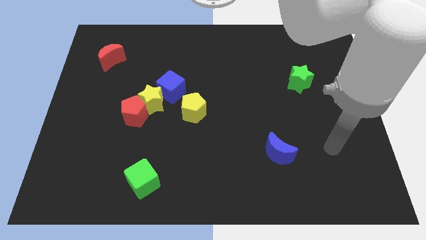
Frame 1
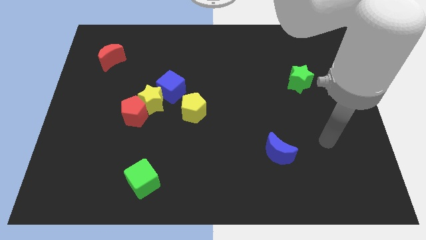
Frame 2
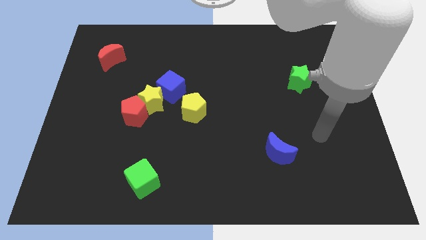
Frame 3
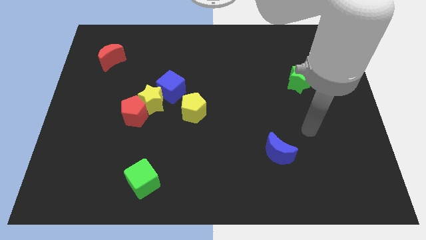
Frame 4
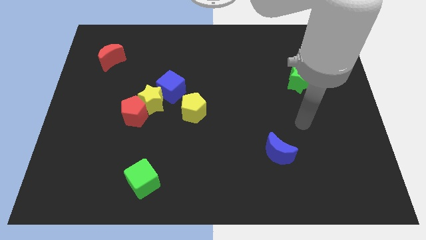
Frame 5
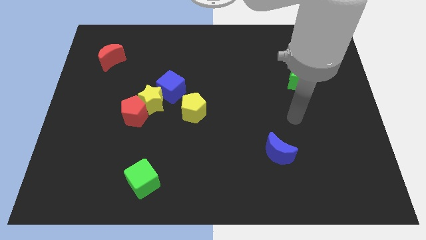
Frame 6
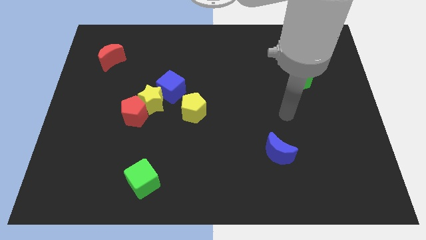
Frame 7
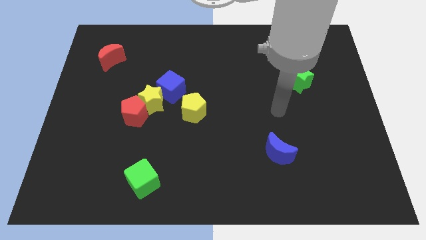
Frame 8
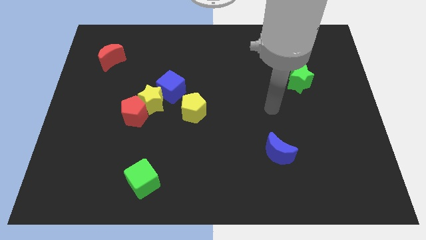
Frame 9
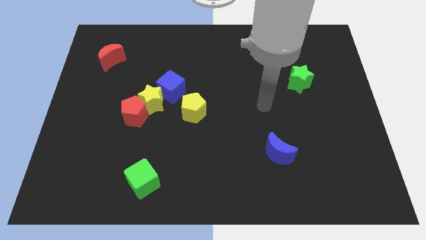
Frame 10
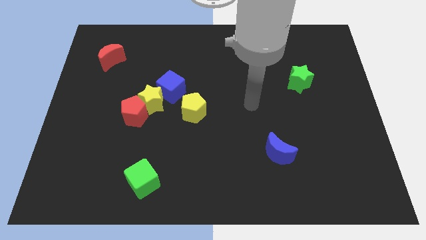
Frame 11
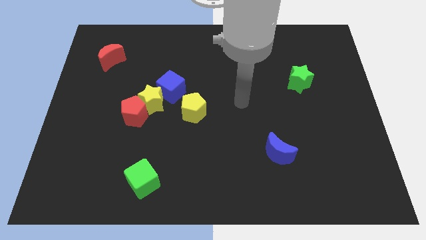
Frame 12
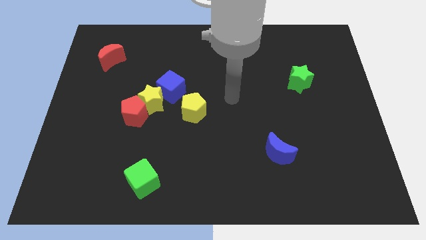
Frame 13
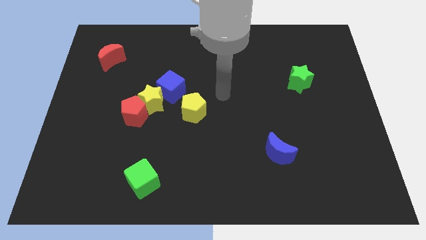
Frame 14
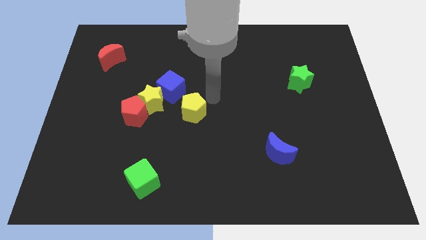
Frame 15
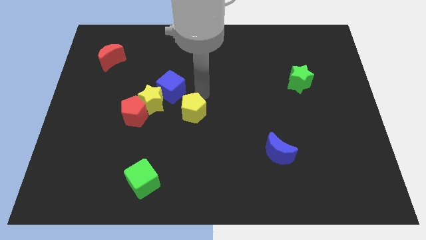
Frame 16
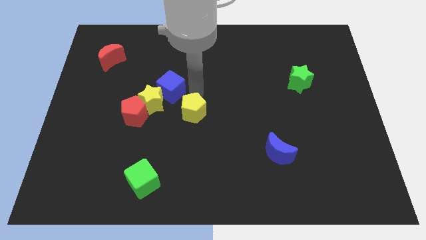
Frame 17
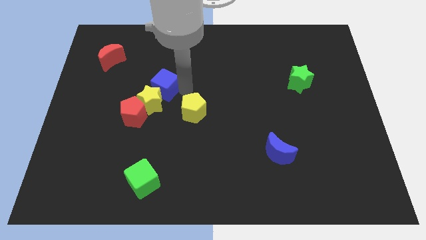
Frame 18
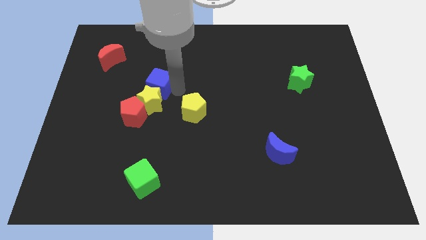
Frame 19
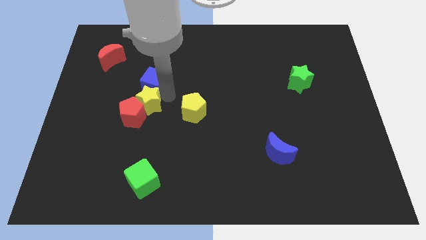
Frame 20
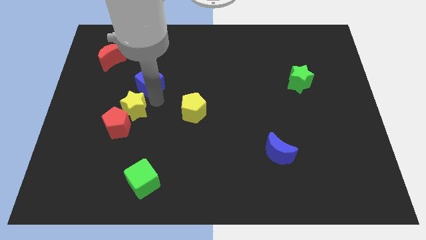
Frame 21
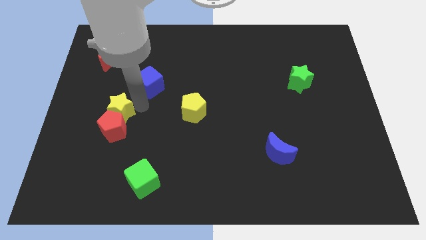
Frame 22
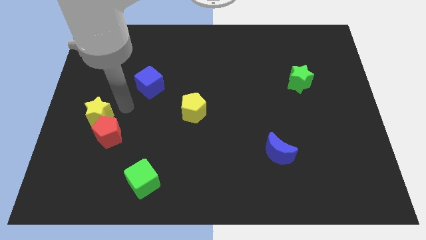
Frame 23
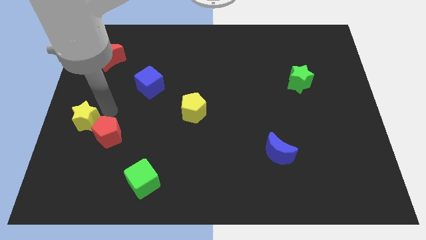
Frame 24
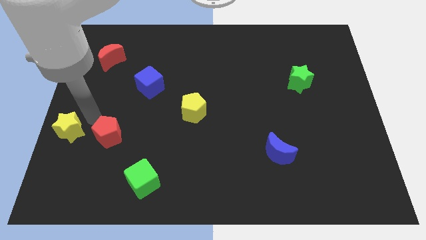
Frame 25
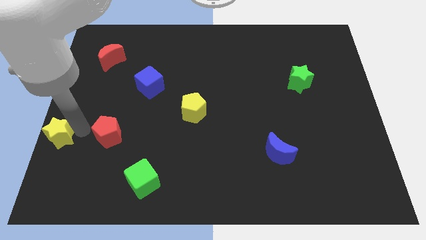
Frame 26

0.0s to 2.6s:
move the red pentagon away from the yellow star

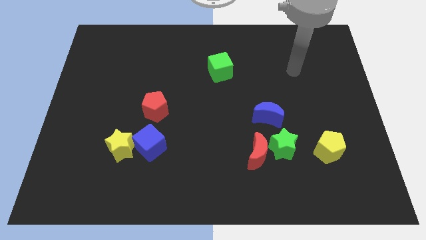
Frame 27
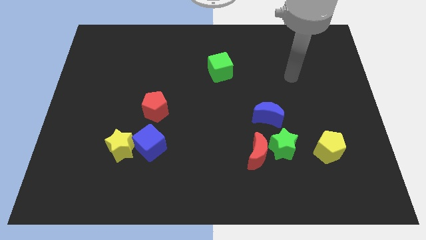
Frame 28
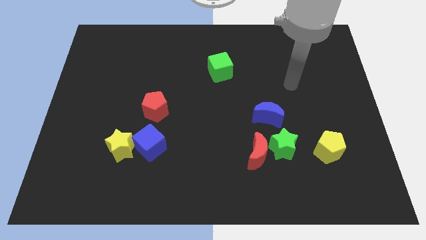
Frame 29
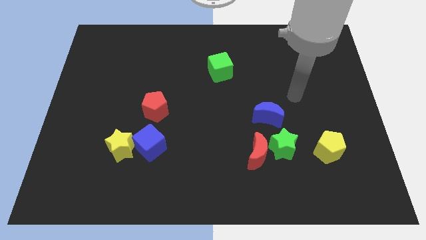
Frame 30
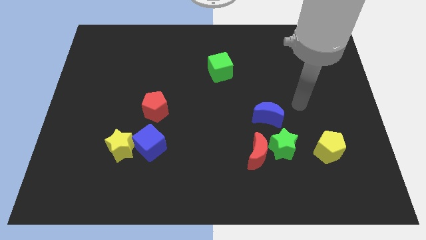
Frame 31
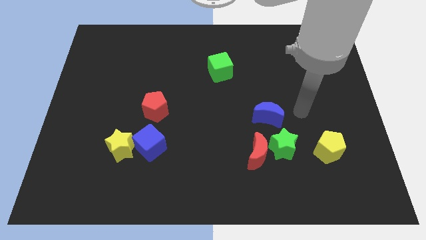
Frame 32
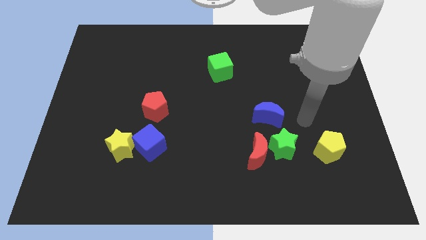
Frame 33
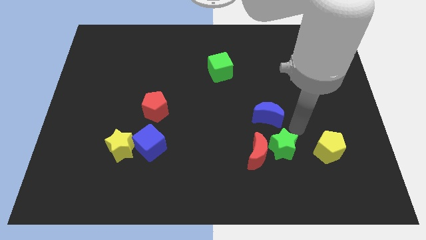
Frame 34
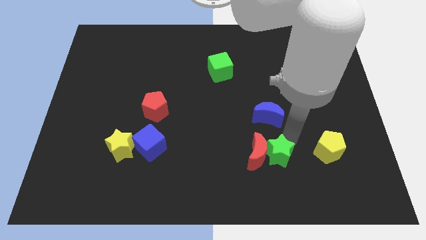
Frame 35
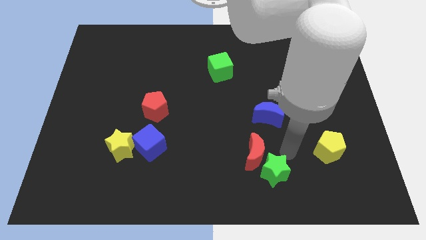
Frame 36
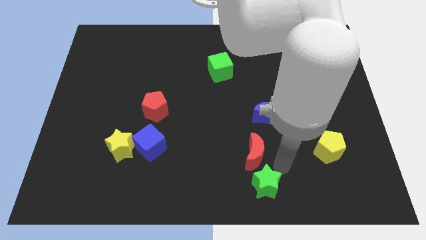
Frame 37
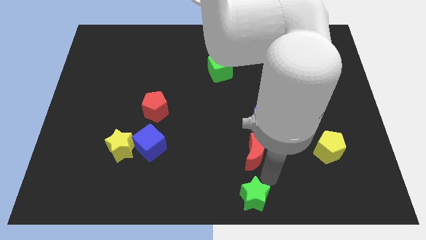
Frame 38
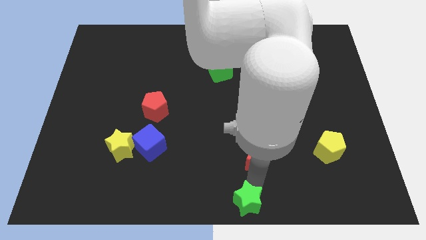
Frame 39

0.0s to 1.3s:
pull the red moon apart from the green star

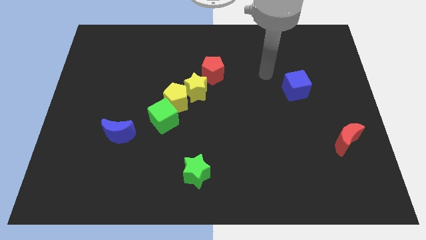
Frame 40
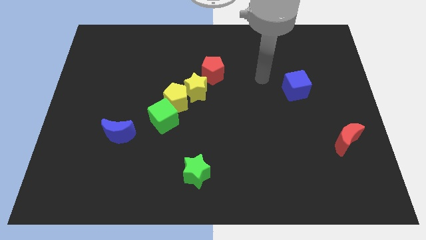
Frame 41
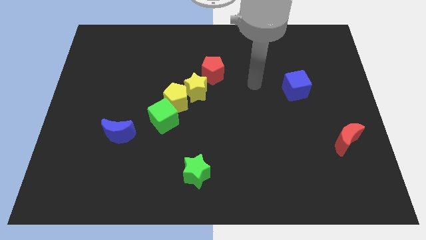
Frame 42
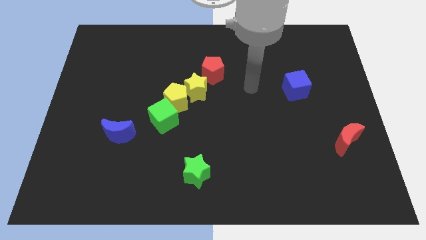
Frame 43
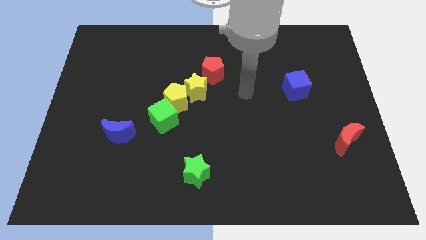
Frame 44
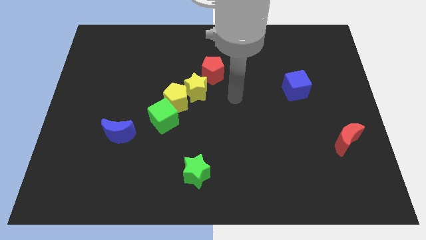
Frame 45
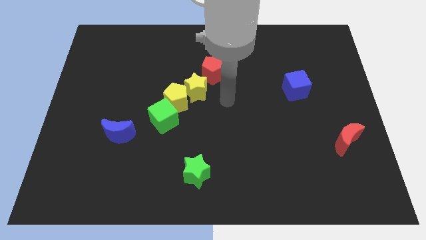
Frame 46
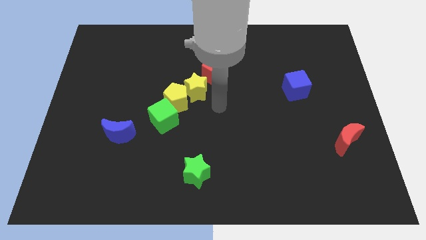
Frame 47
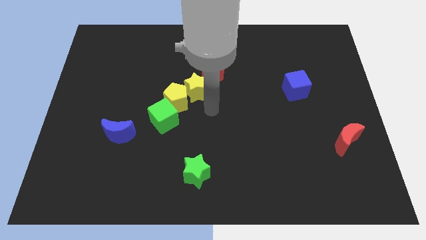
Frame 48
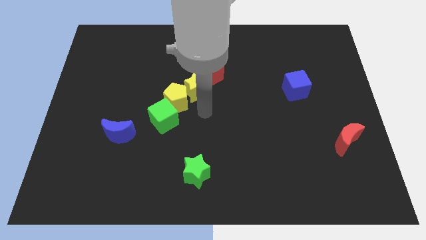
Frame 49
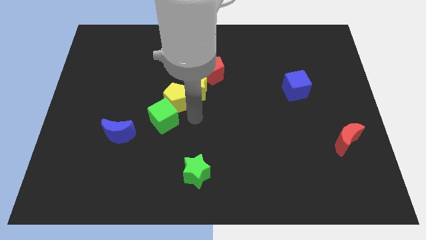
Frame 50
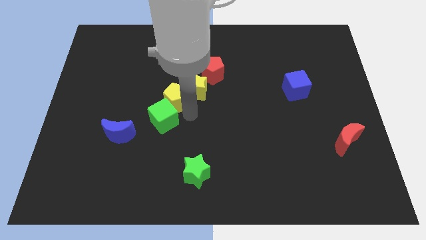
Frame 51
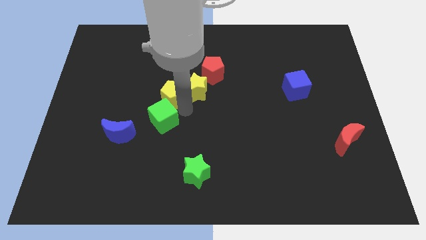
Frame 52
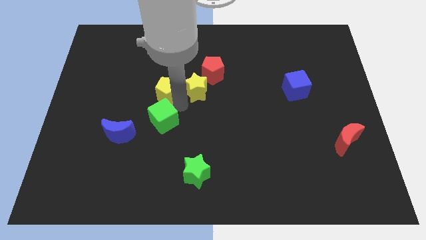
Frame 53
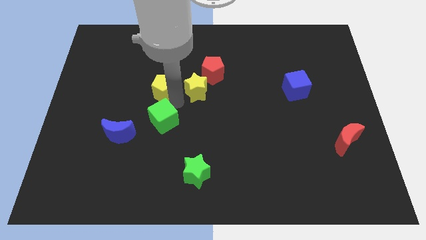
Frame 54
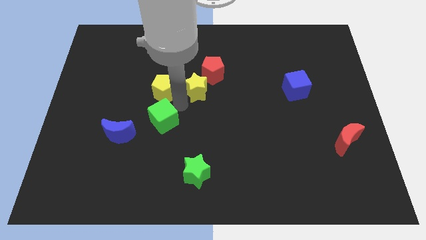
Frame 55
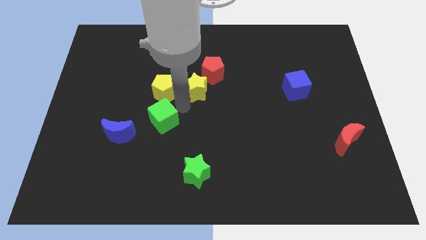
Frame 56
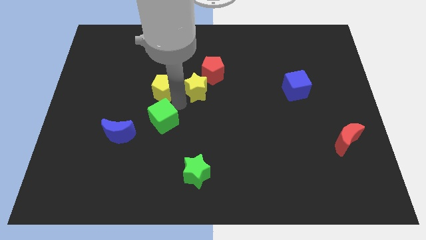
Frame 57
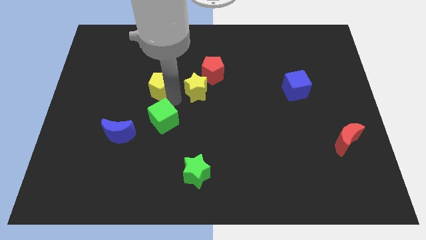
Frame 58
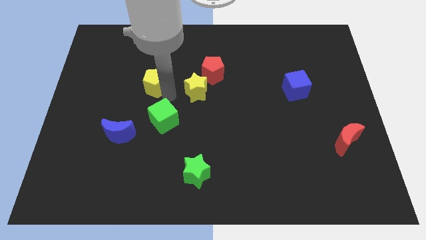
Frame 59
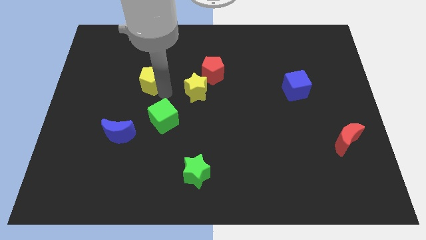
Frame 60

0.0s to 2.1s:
move the yellow pentagon away from the yellow star and green cube

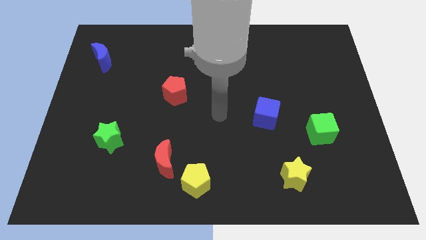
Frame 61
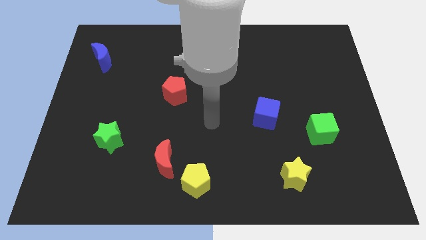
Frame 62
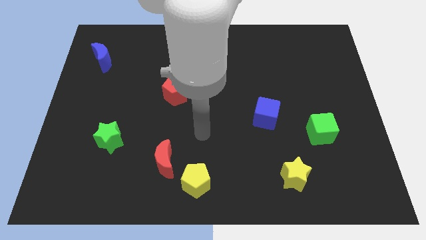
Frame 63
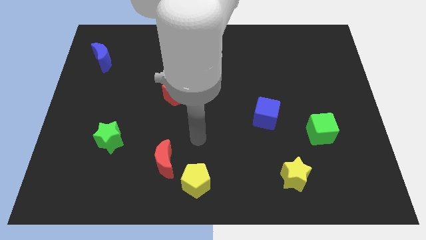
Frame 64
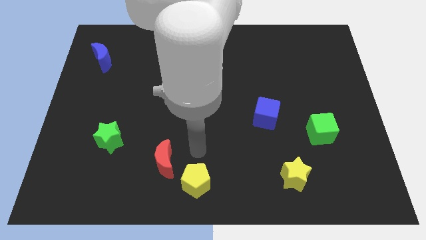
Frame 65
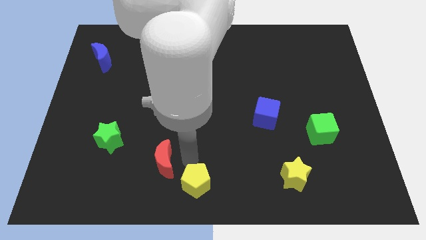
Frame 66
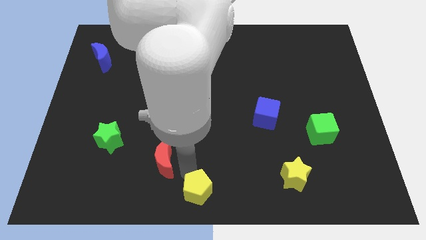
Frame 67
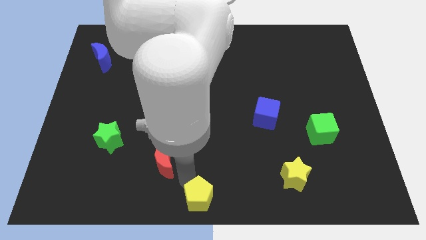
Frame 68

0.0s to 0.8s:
move the red moon away from the yellow pentagon

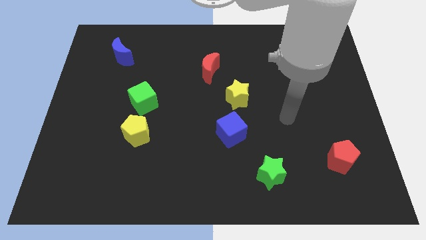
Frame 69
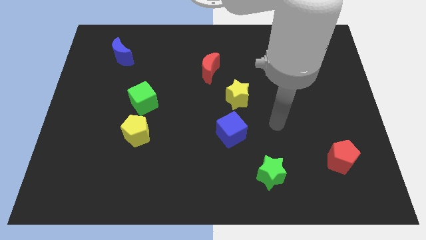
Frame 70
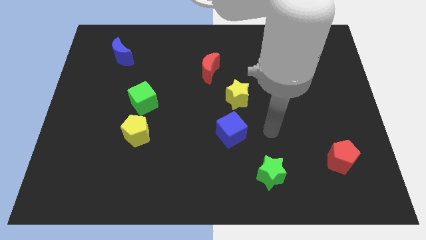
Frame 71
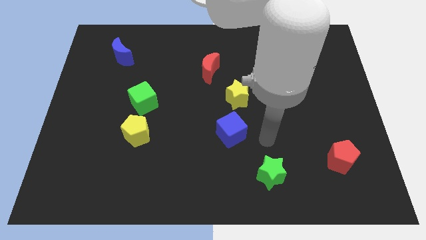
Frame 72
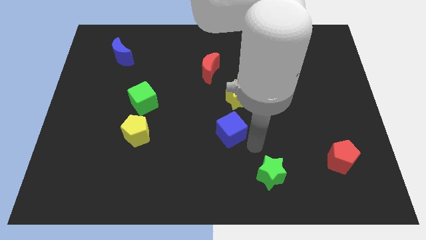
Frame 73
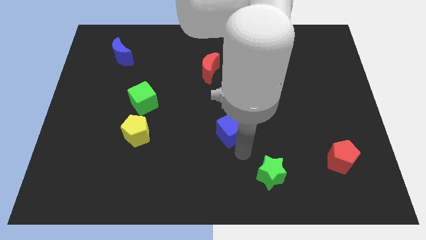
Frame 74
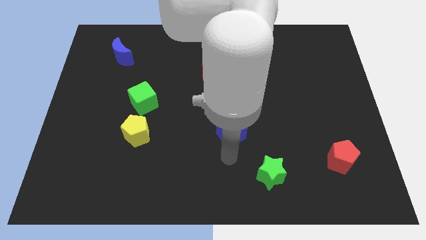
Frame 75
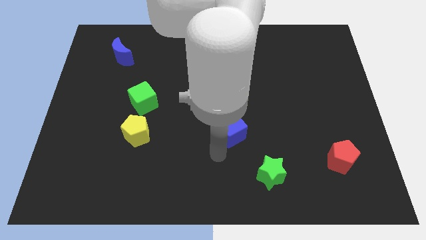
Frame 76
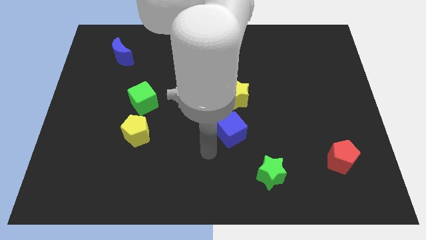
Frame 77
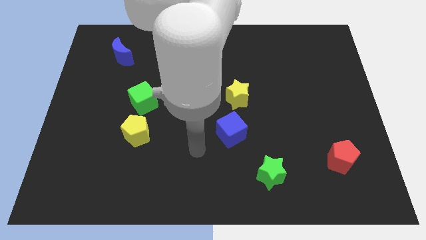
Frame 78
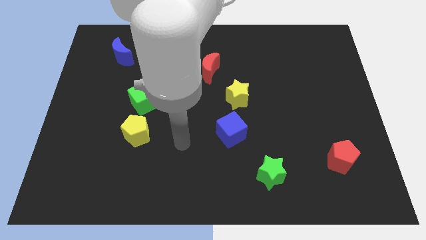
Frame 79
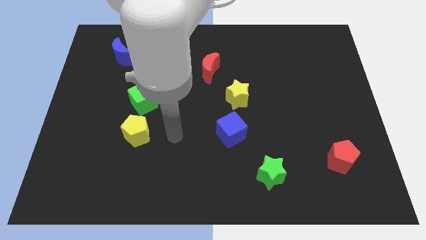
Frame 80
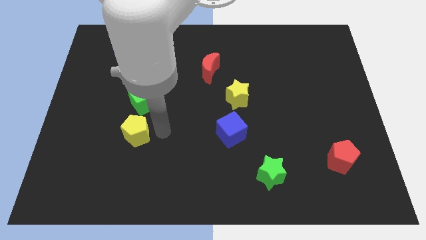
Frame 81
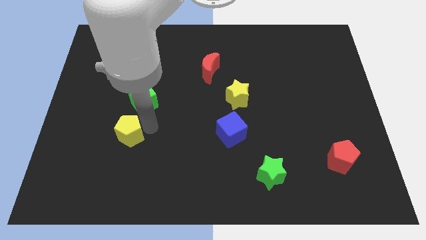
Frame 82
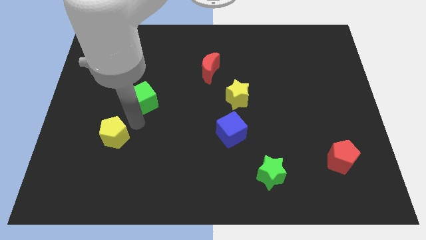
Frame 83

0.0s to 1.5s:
move the green cube away from the yellow pentagon

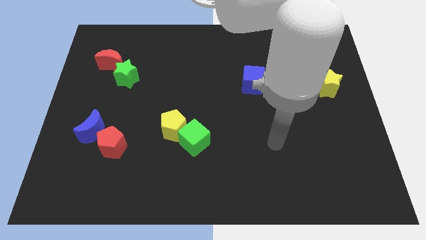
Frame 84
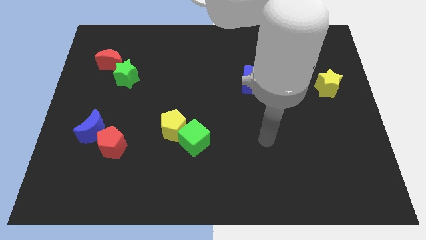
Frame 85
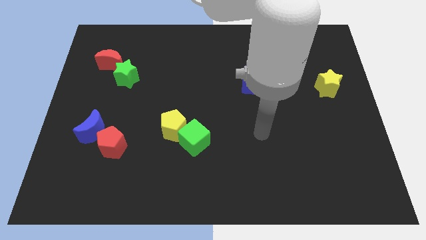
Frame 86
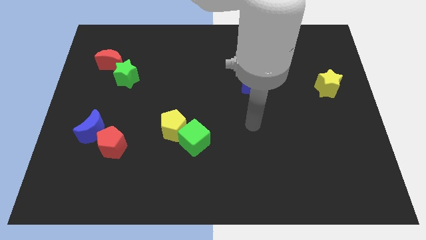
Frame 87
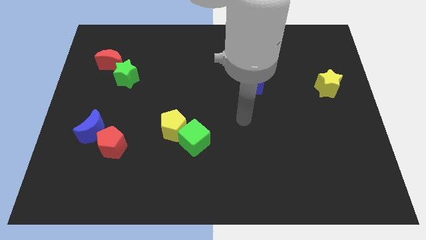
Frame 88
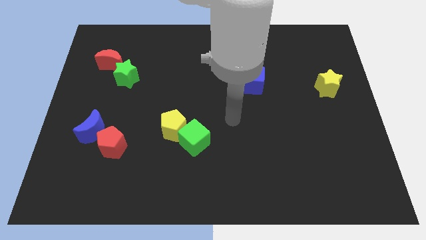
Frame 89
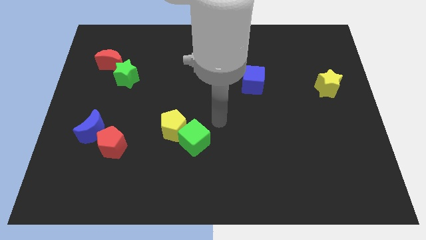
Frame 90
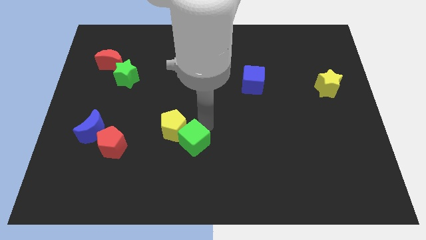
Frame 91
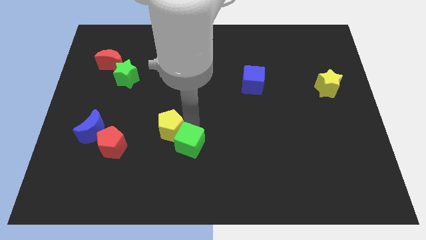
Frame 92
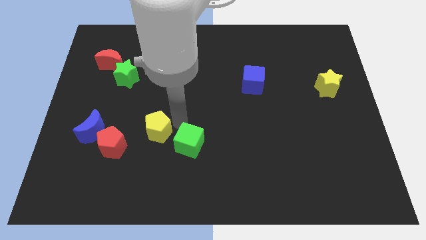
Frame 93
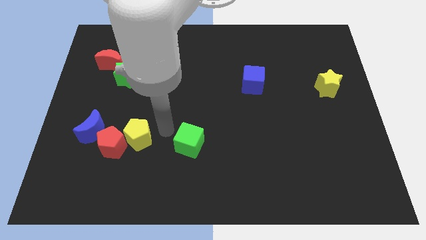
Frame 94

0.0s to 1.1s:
pull the green cube apart from the yellow pentagon
